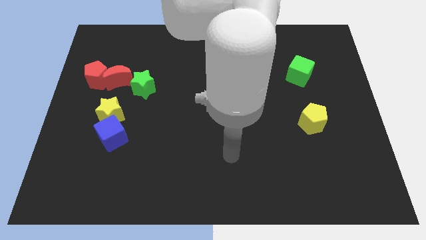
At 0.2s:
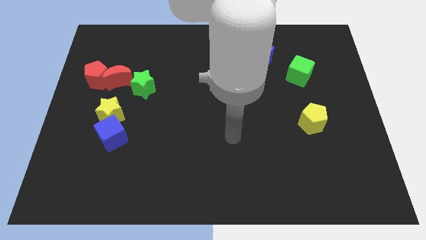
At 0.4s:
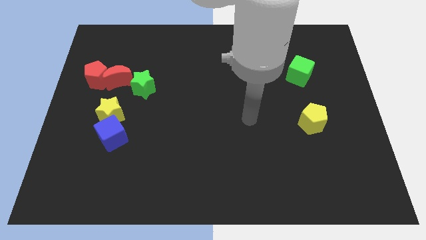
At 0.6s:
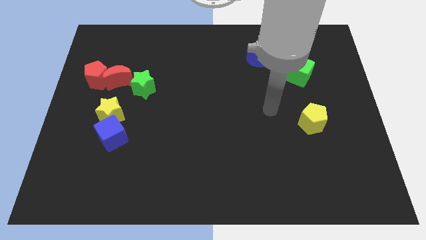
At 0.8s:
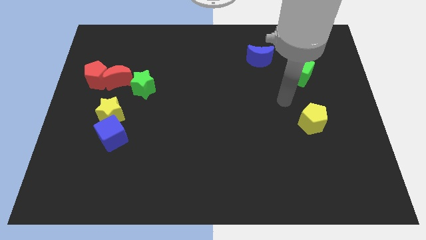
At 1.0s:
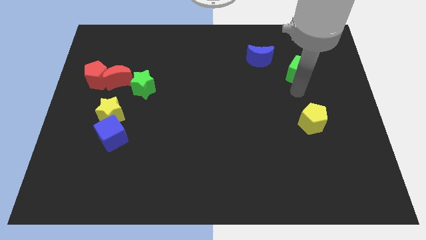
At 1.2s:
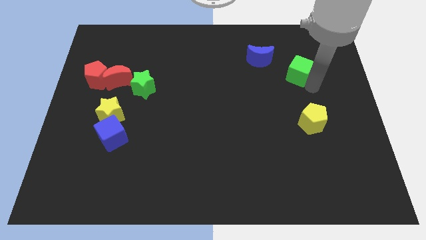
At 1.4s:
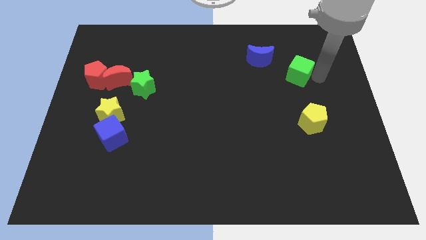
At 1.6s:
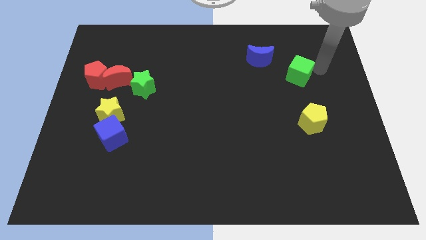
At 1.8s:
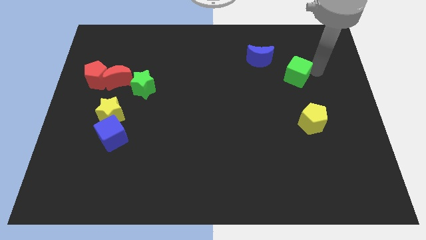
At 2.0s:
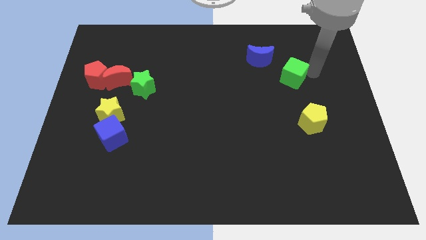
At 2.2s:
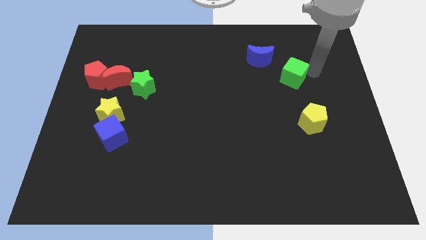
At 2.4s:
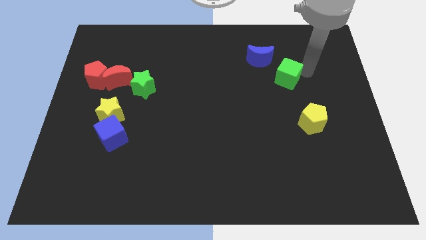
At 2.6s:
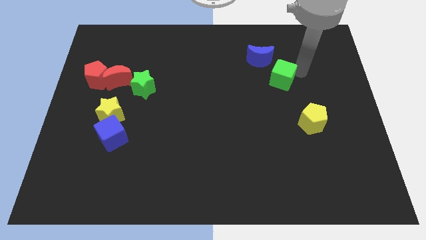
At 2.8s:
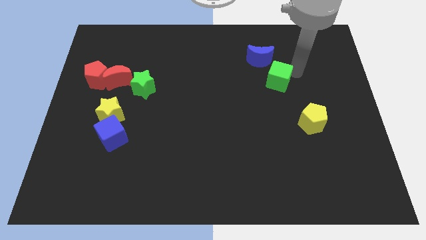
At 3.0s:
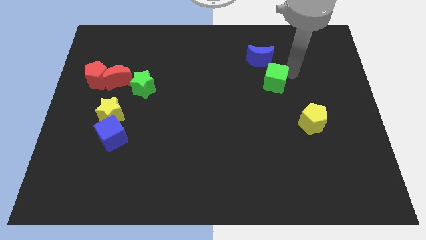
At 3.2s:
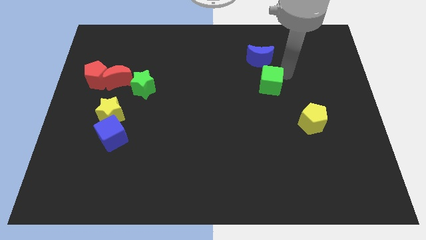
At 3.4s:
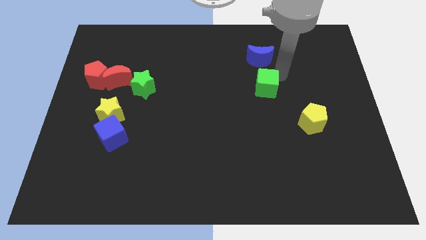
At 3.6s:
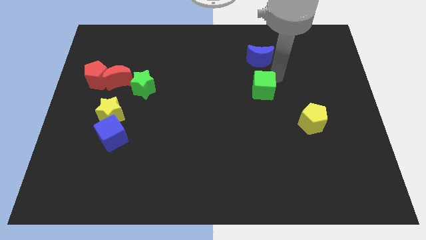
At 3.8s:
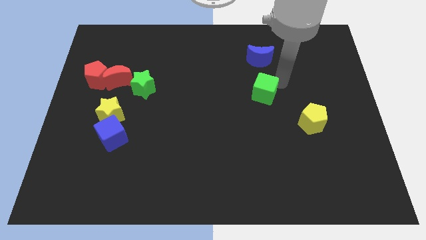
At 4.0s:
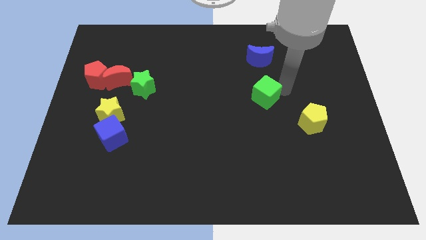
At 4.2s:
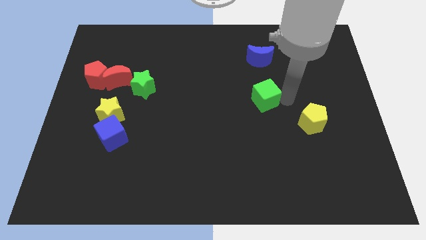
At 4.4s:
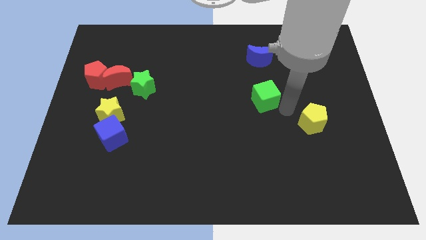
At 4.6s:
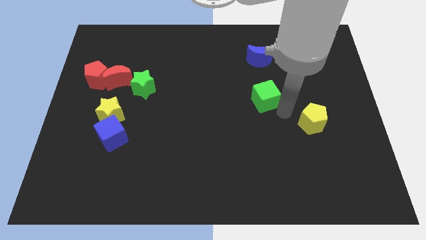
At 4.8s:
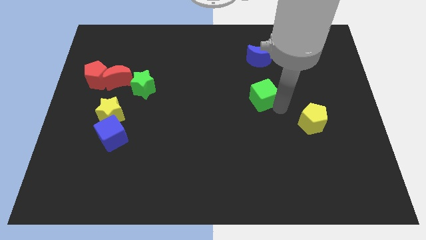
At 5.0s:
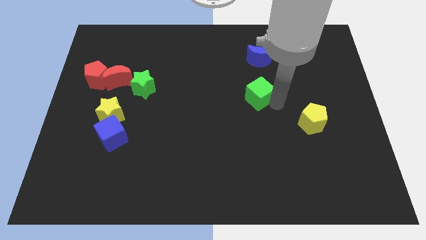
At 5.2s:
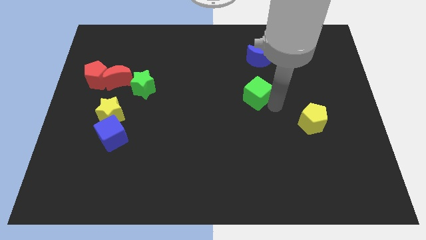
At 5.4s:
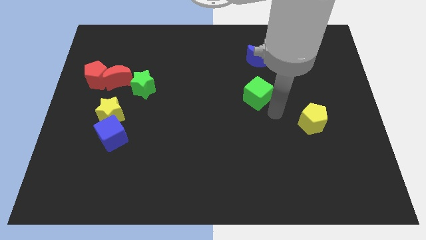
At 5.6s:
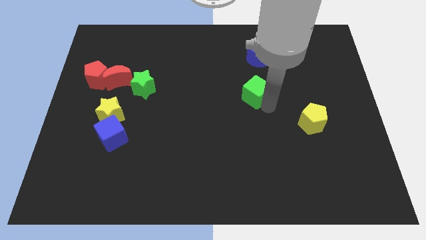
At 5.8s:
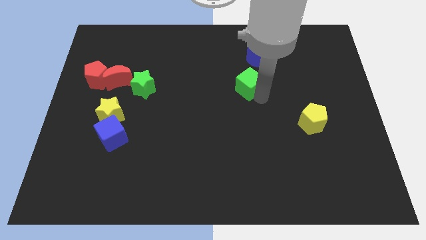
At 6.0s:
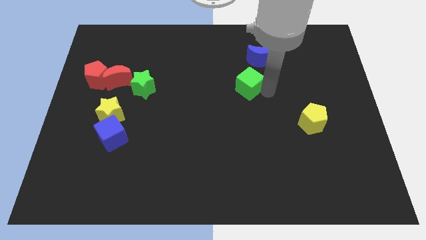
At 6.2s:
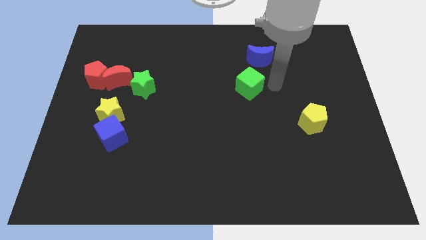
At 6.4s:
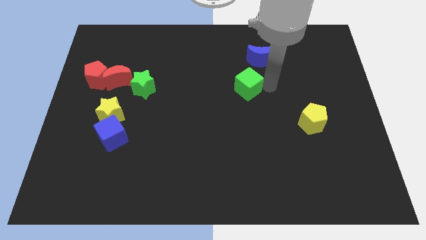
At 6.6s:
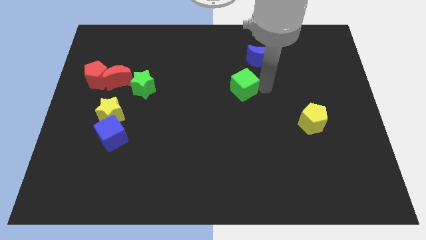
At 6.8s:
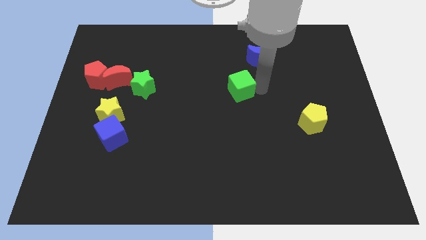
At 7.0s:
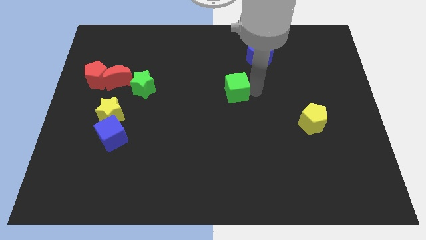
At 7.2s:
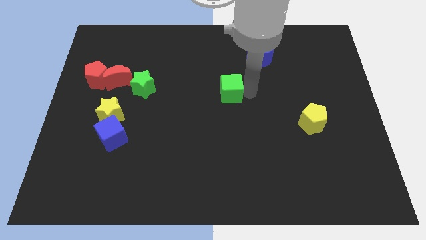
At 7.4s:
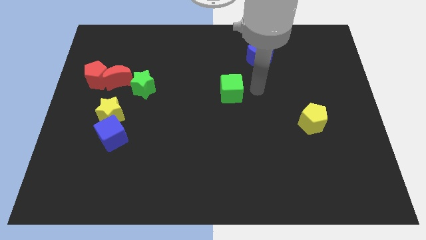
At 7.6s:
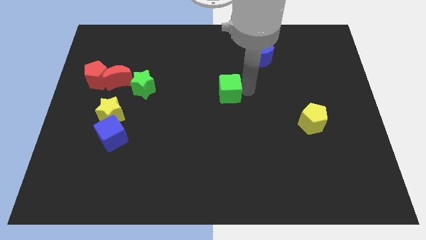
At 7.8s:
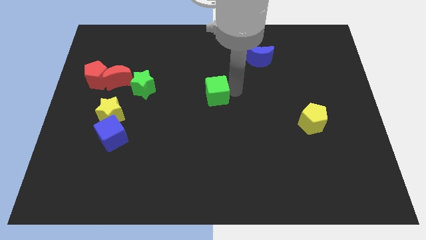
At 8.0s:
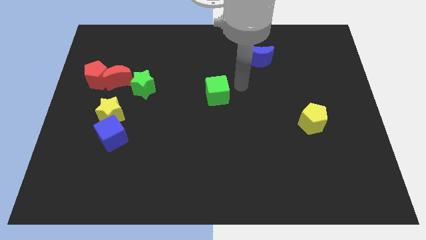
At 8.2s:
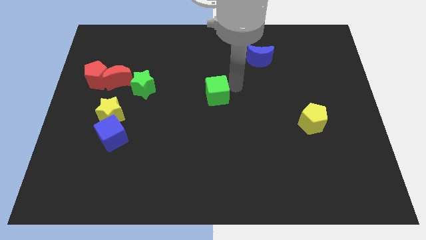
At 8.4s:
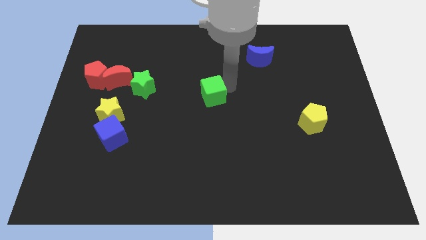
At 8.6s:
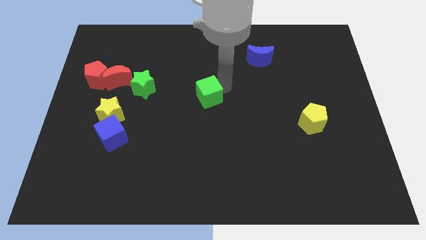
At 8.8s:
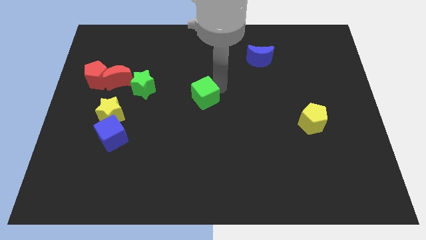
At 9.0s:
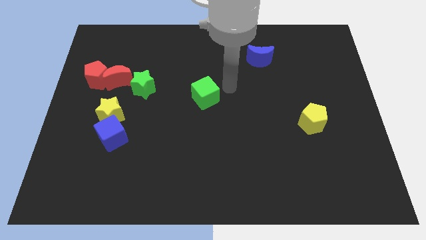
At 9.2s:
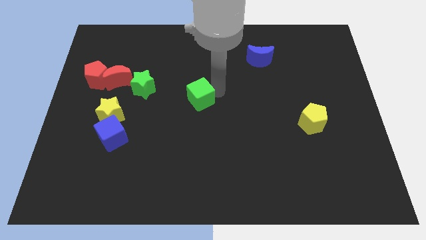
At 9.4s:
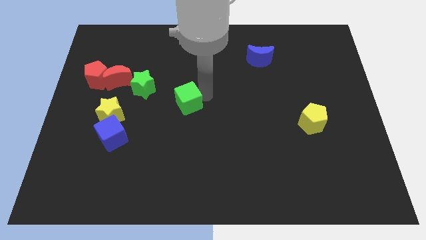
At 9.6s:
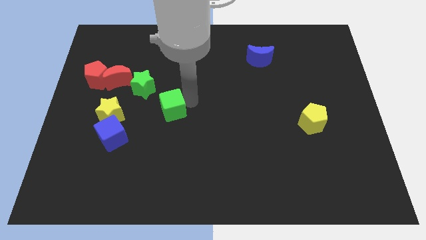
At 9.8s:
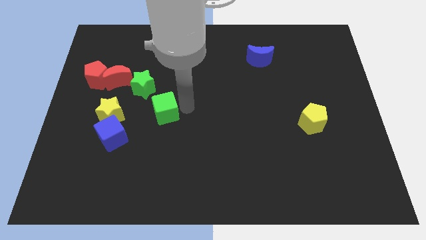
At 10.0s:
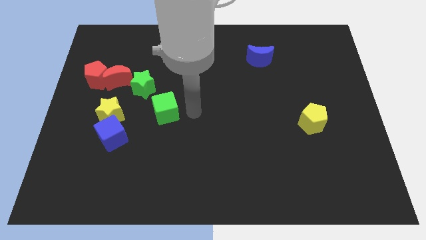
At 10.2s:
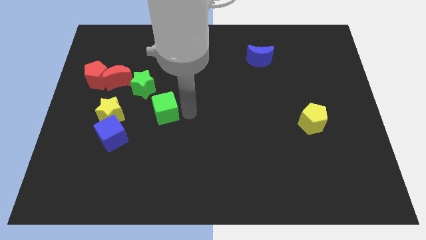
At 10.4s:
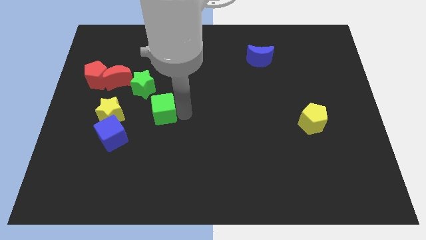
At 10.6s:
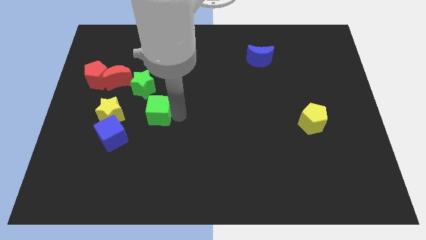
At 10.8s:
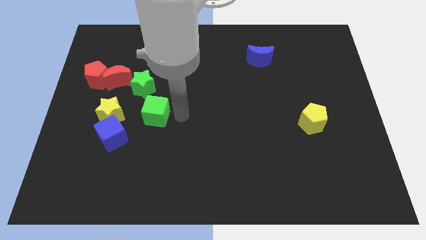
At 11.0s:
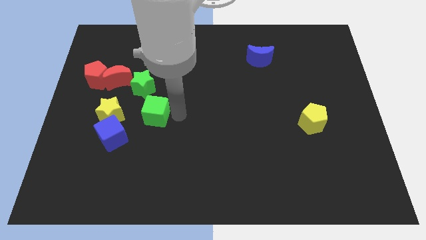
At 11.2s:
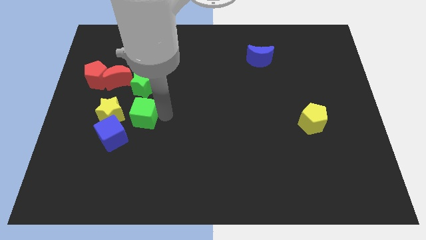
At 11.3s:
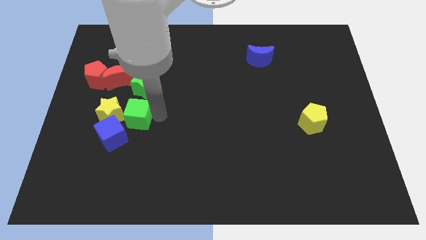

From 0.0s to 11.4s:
push the green cube to the yellow star

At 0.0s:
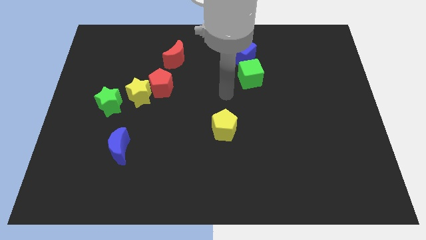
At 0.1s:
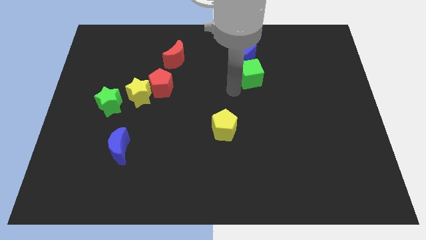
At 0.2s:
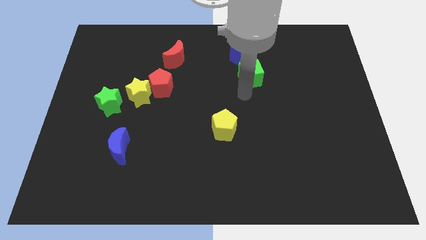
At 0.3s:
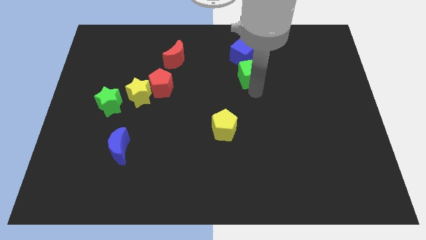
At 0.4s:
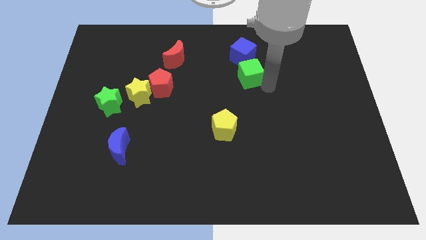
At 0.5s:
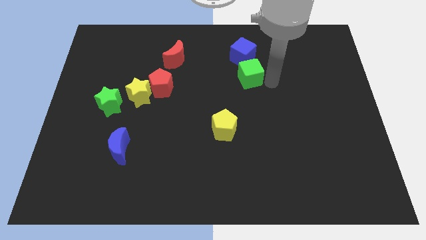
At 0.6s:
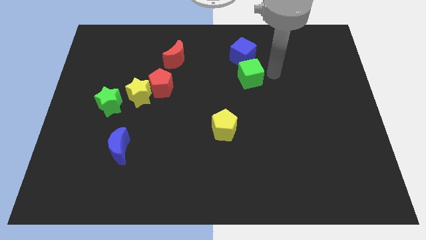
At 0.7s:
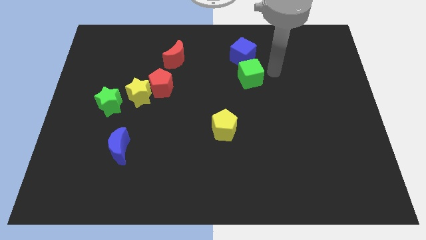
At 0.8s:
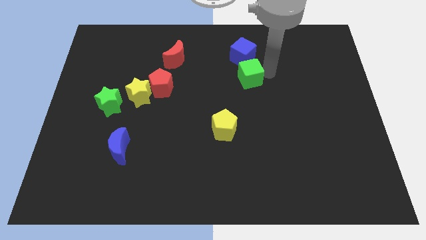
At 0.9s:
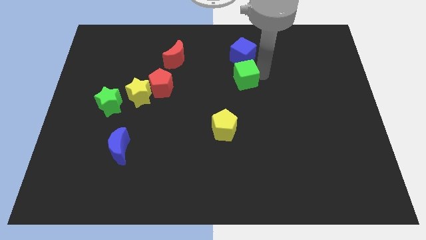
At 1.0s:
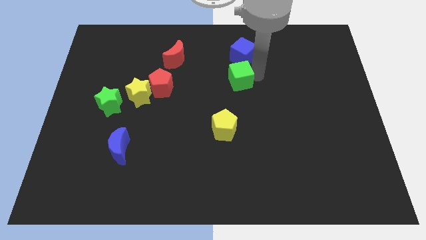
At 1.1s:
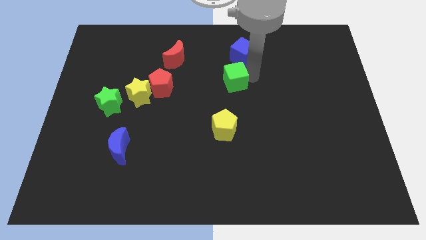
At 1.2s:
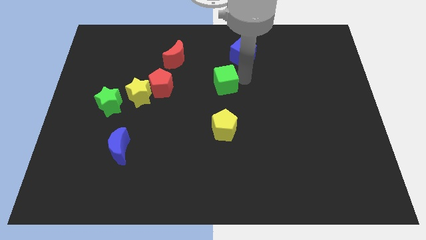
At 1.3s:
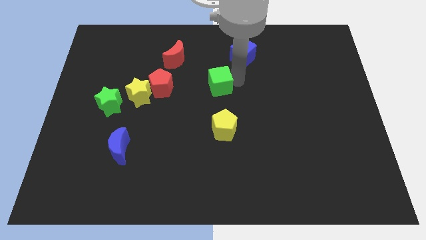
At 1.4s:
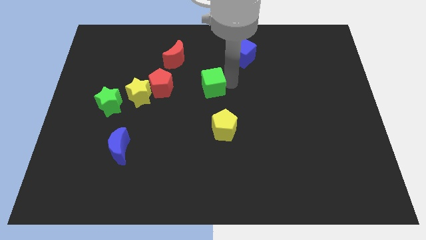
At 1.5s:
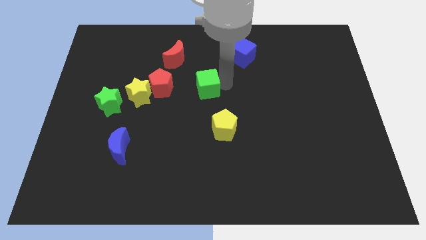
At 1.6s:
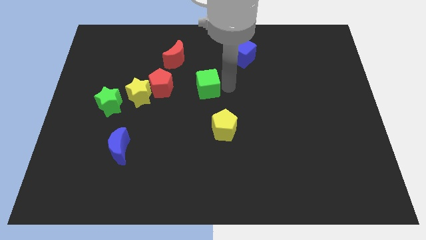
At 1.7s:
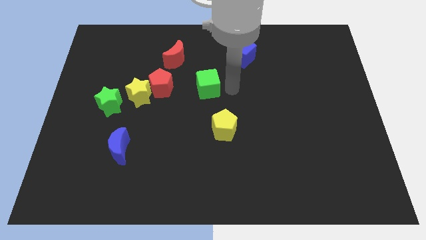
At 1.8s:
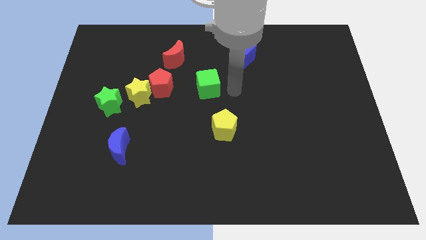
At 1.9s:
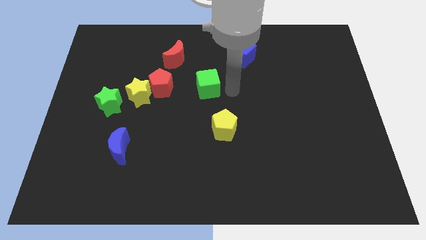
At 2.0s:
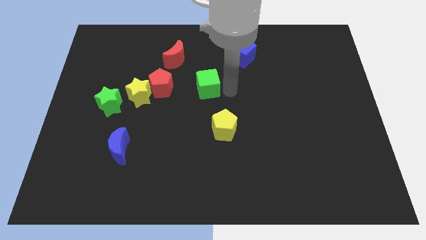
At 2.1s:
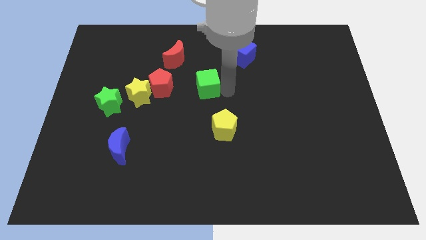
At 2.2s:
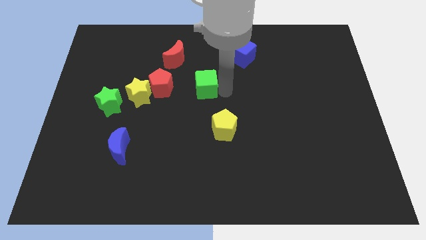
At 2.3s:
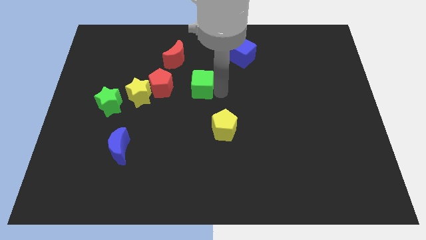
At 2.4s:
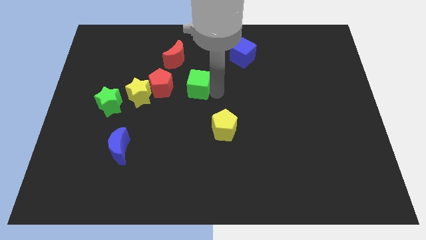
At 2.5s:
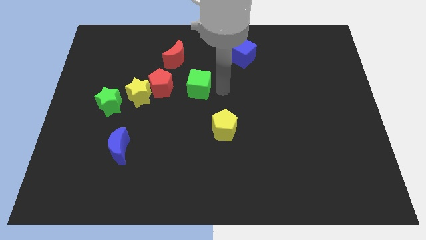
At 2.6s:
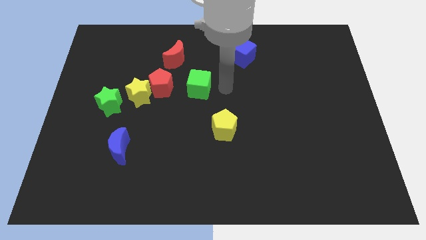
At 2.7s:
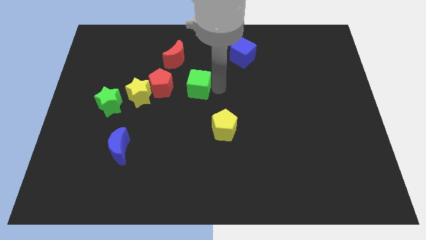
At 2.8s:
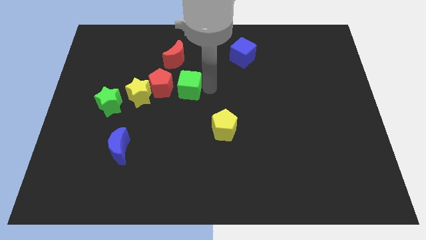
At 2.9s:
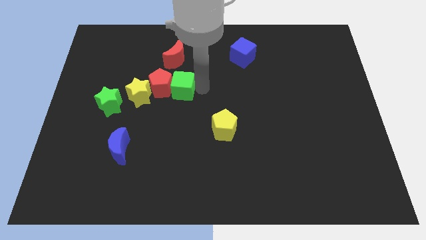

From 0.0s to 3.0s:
move the green cube next to the red pentagon
